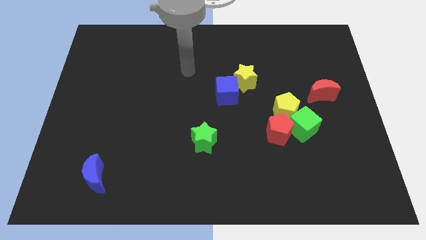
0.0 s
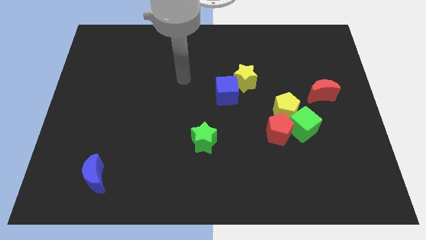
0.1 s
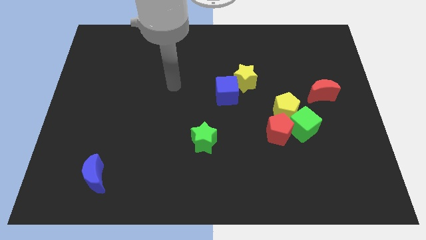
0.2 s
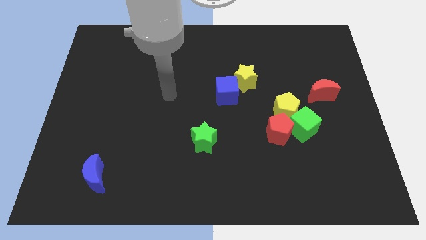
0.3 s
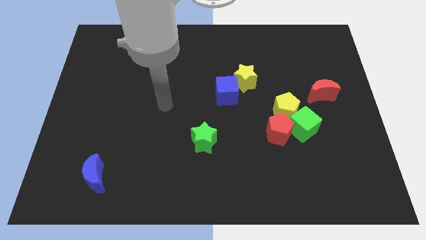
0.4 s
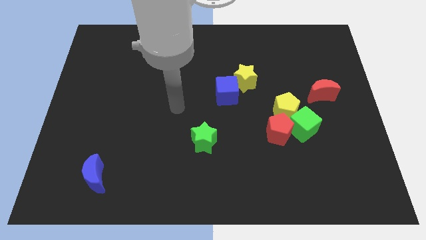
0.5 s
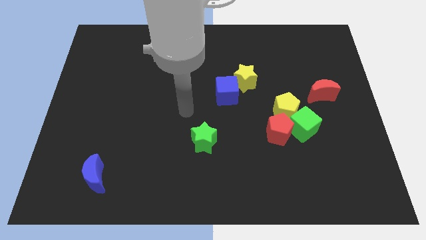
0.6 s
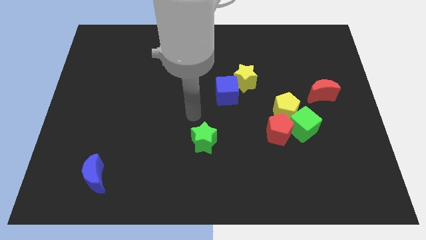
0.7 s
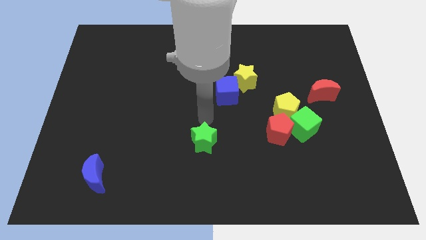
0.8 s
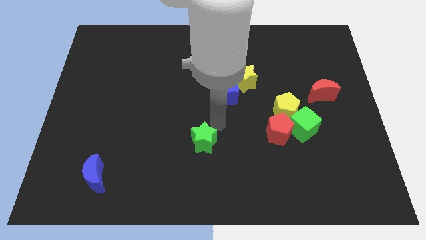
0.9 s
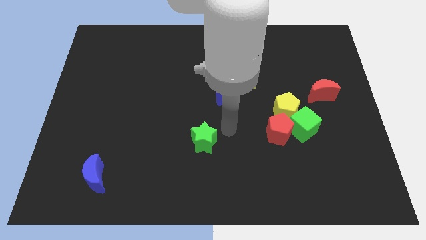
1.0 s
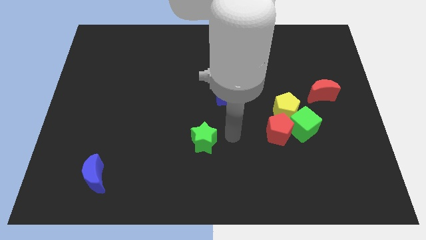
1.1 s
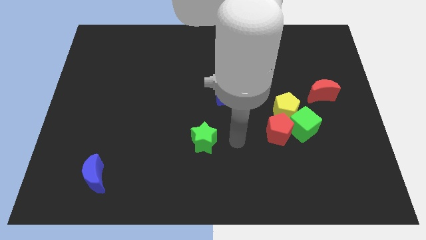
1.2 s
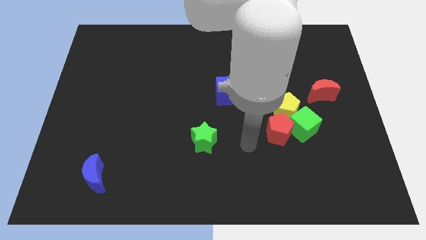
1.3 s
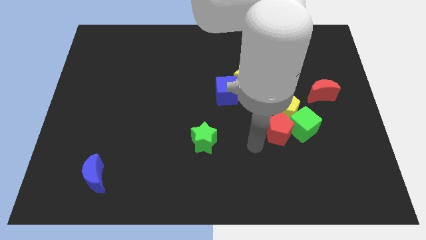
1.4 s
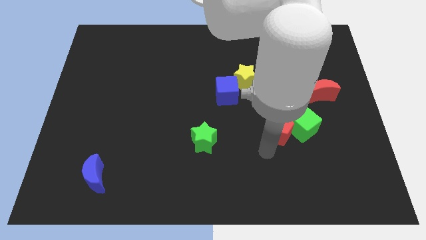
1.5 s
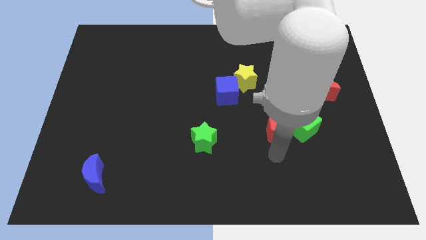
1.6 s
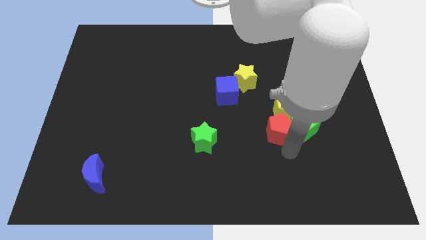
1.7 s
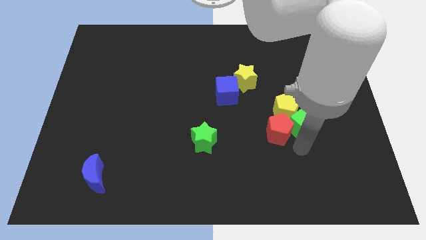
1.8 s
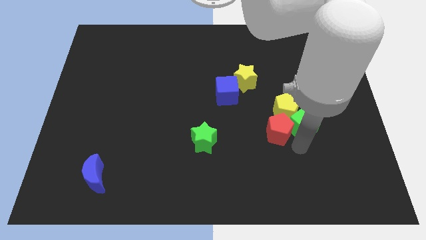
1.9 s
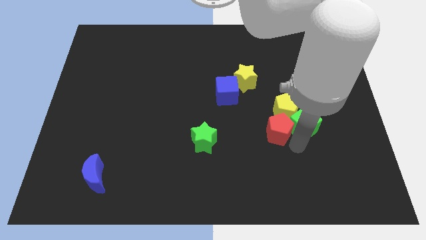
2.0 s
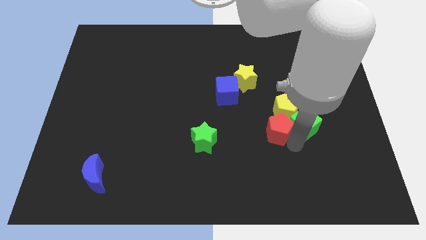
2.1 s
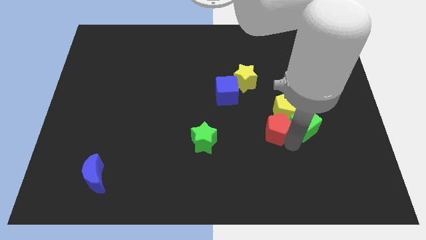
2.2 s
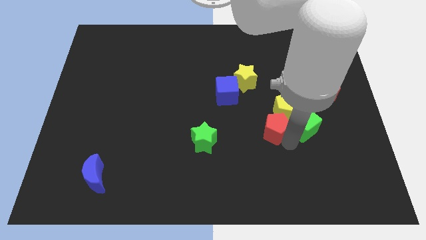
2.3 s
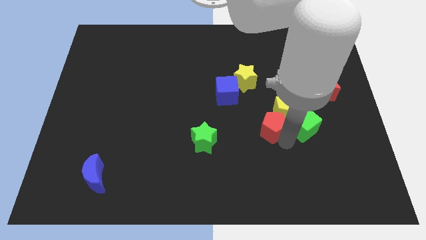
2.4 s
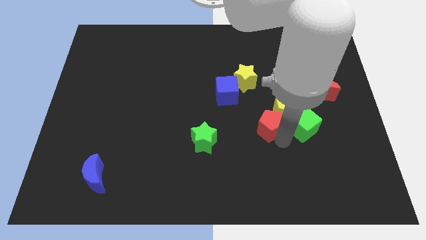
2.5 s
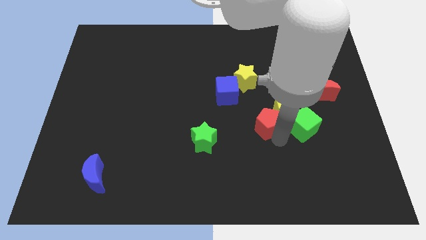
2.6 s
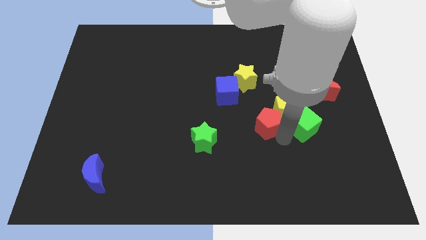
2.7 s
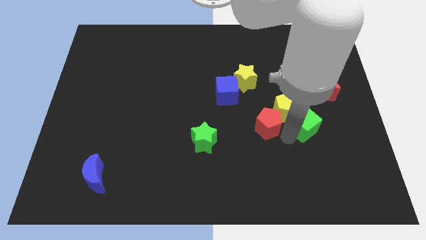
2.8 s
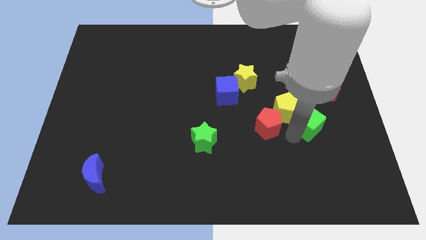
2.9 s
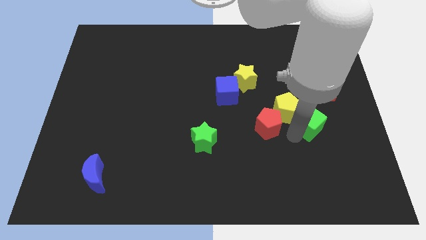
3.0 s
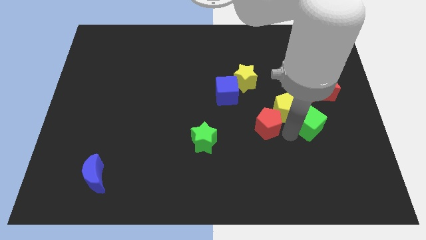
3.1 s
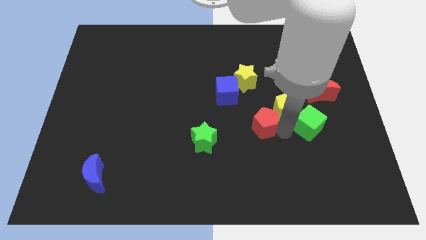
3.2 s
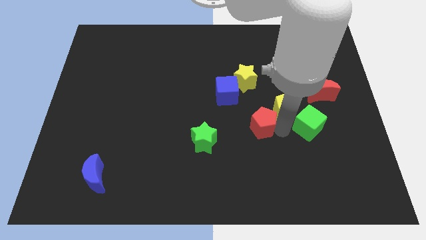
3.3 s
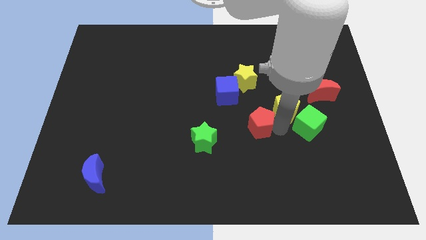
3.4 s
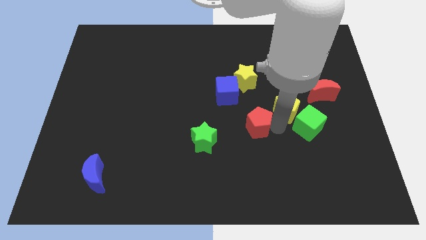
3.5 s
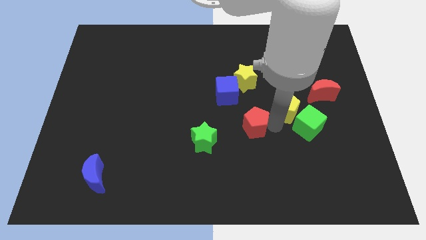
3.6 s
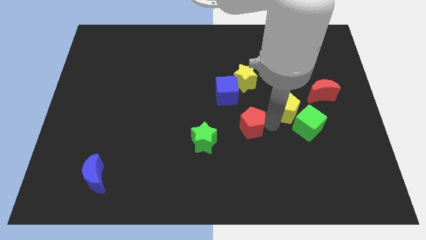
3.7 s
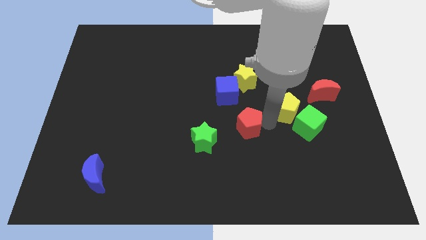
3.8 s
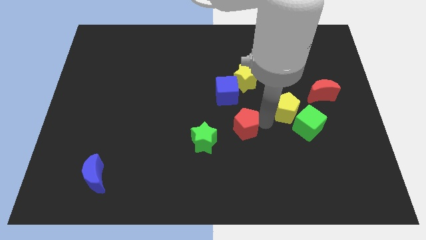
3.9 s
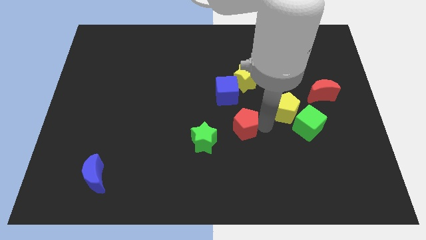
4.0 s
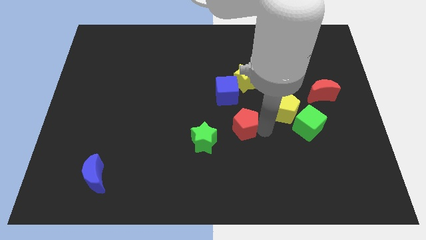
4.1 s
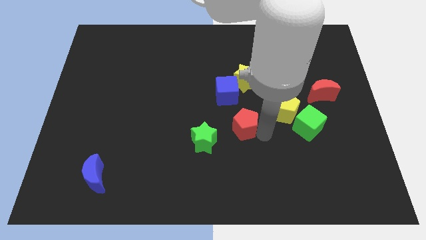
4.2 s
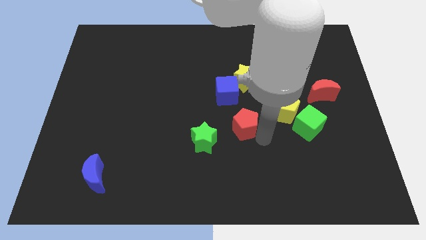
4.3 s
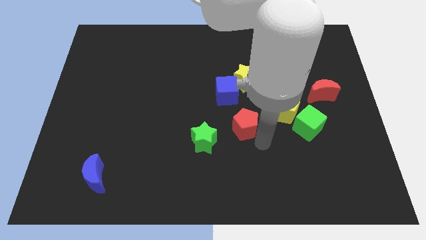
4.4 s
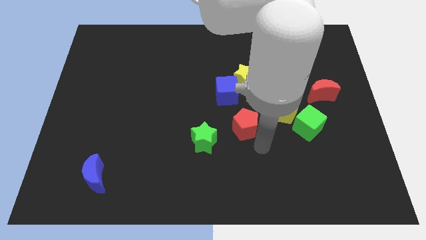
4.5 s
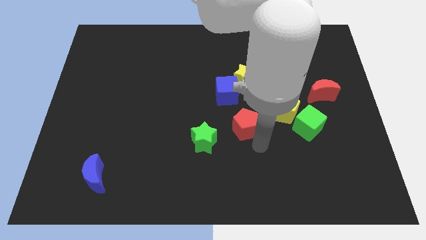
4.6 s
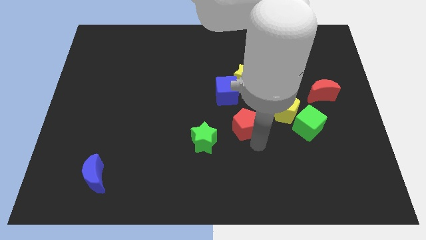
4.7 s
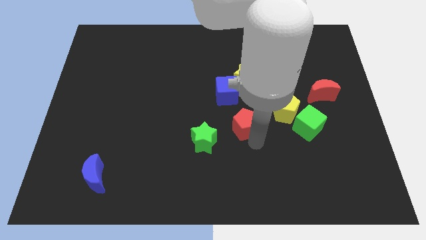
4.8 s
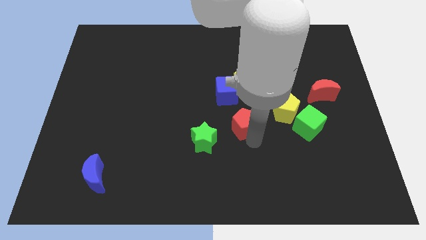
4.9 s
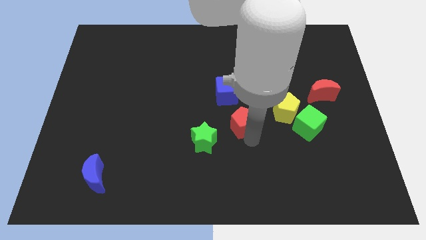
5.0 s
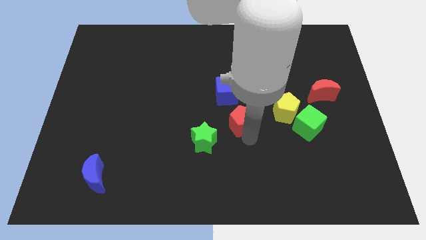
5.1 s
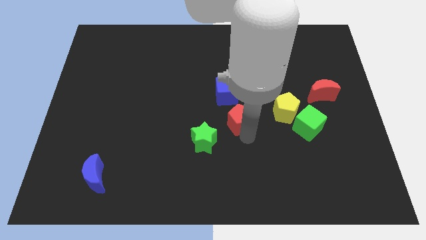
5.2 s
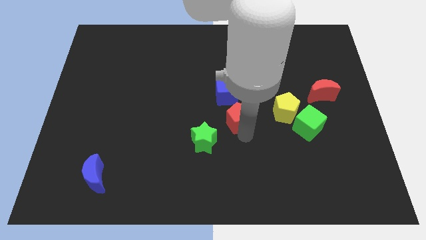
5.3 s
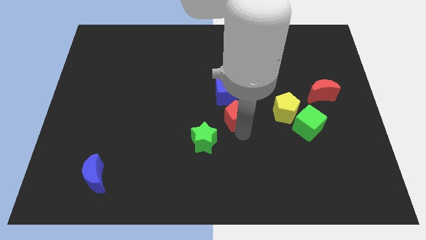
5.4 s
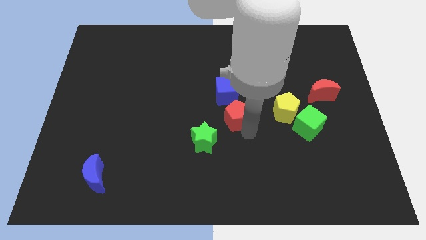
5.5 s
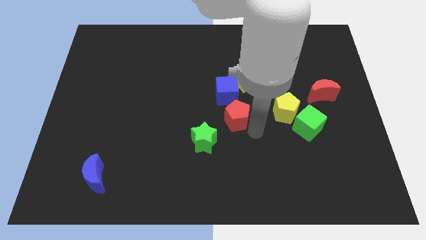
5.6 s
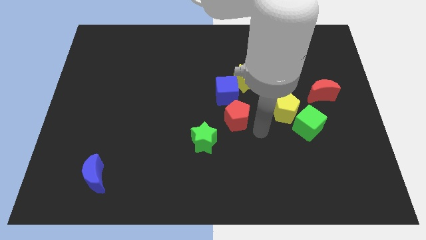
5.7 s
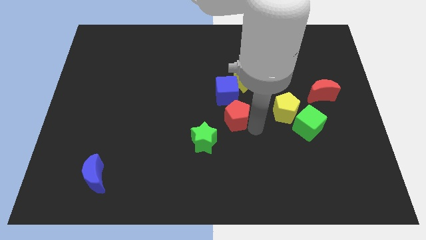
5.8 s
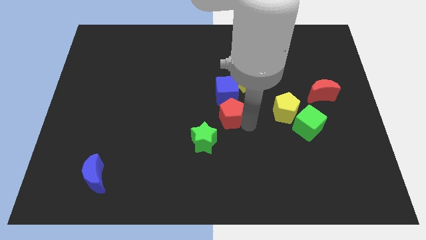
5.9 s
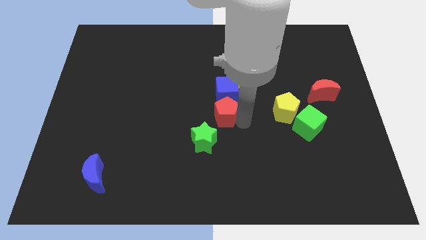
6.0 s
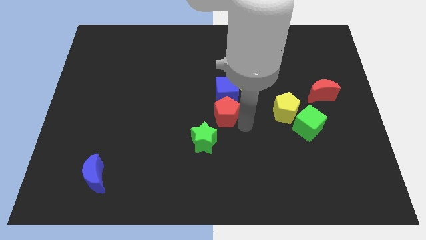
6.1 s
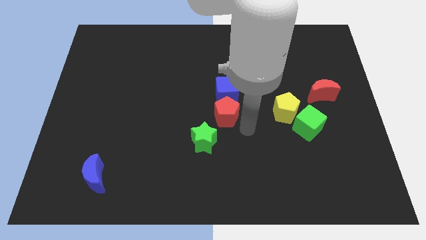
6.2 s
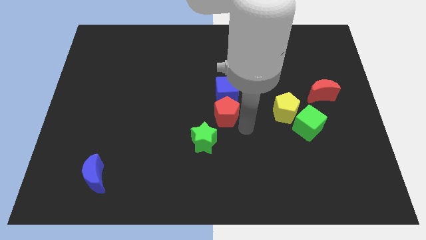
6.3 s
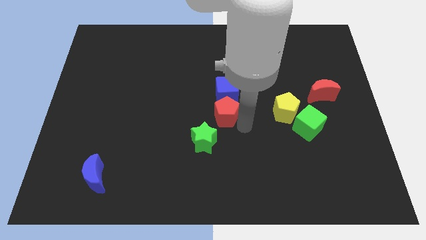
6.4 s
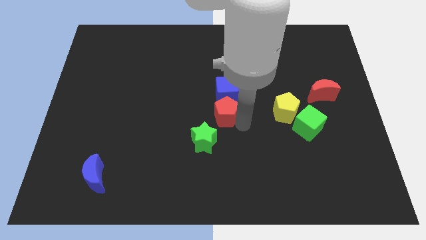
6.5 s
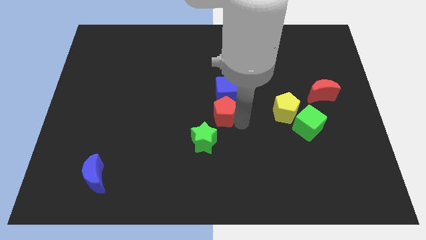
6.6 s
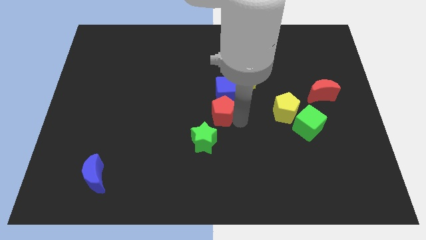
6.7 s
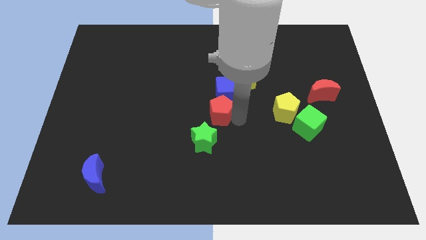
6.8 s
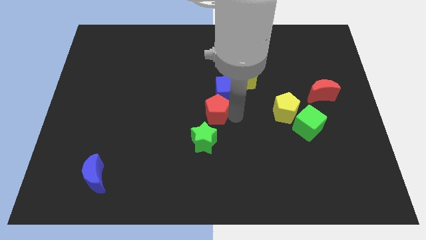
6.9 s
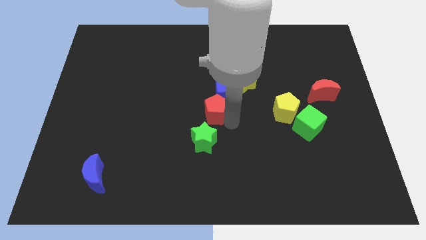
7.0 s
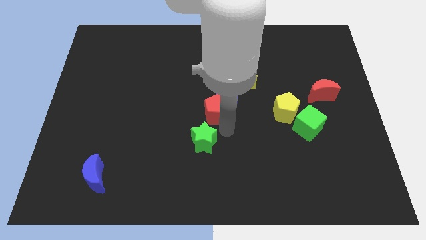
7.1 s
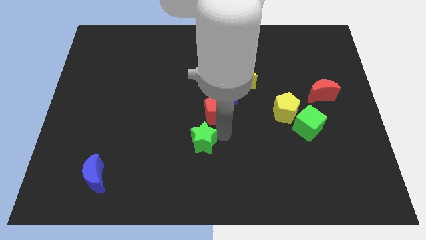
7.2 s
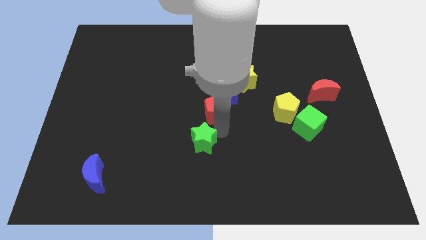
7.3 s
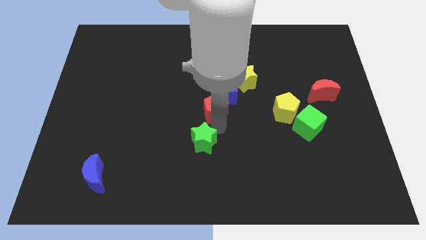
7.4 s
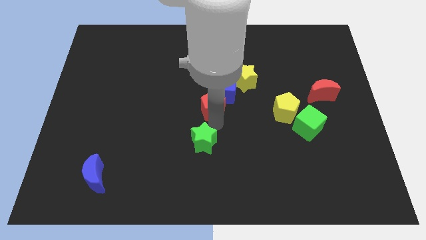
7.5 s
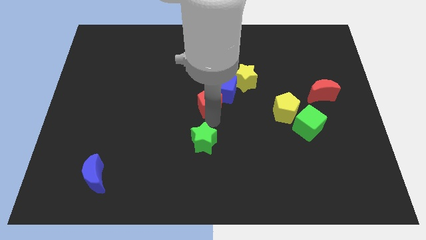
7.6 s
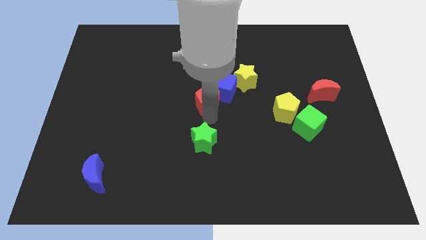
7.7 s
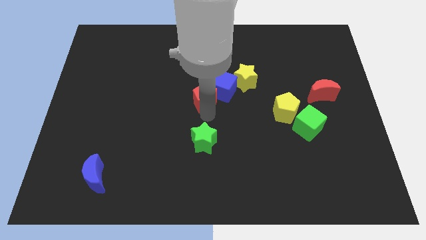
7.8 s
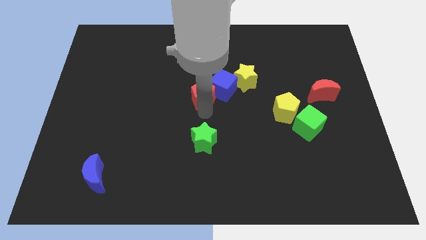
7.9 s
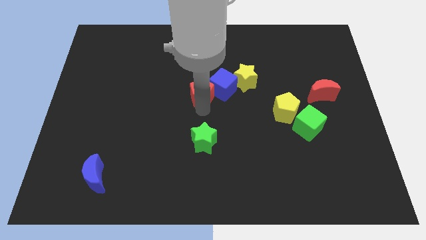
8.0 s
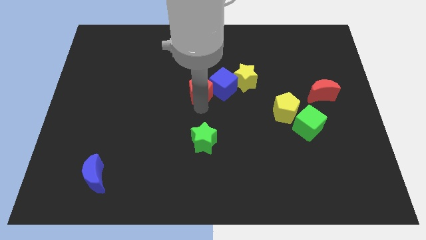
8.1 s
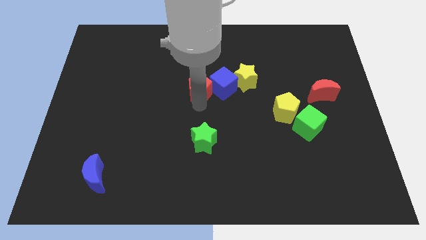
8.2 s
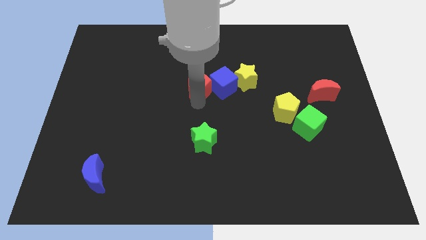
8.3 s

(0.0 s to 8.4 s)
put the red pentagon to the top left of the blue cube
